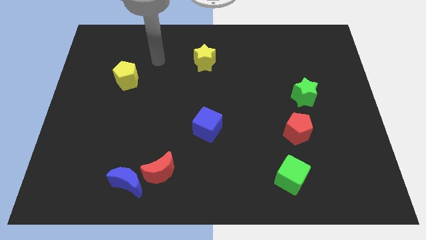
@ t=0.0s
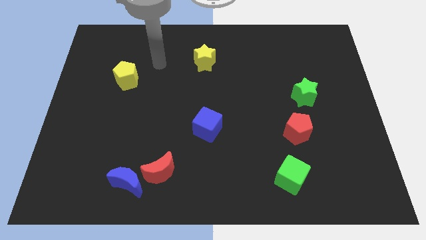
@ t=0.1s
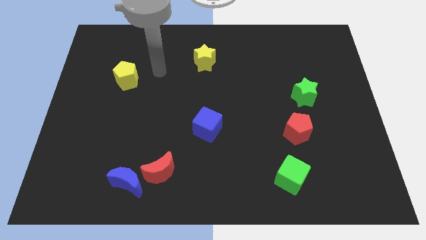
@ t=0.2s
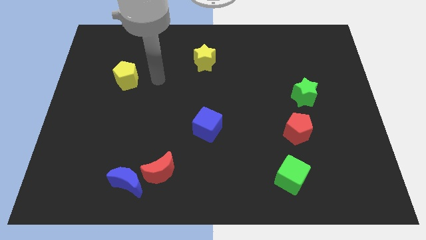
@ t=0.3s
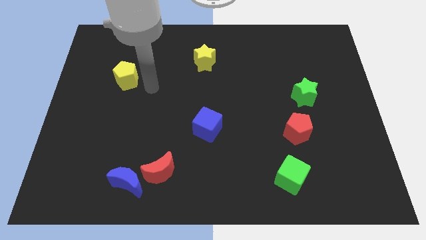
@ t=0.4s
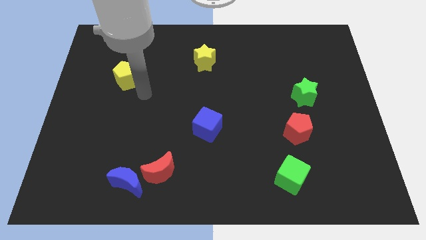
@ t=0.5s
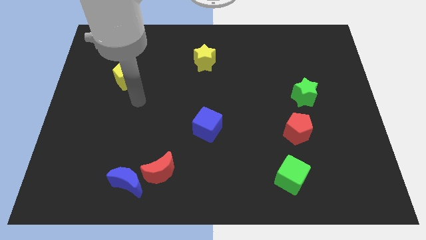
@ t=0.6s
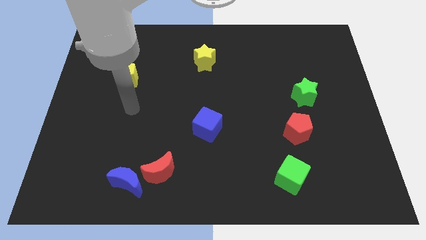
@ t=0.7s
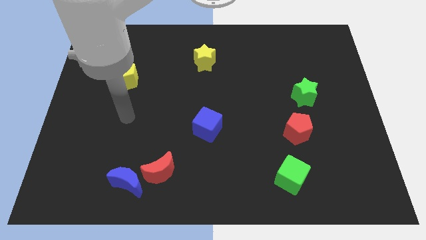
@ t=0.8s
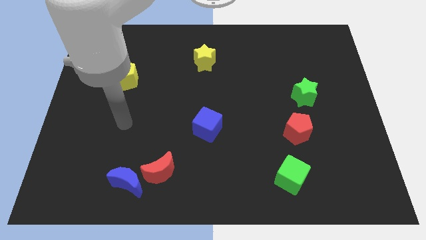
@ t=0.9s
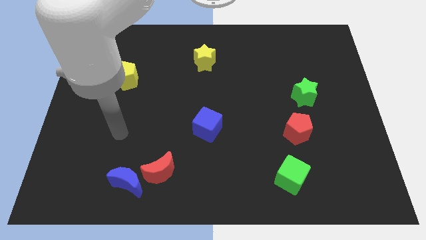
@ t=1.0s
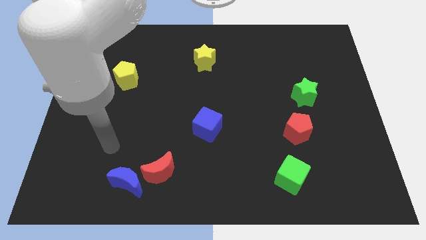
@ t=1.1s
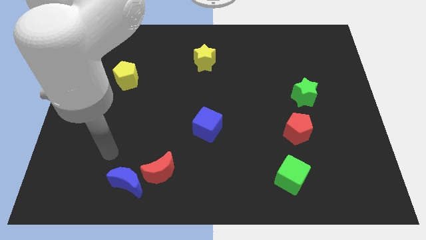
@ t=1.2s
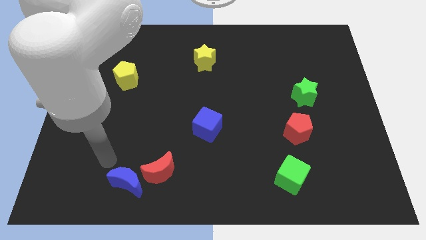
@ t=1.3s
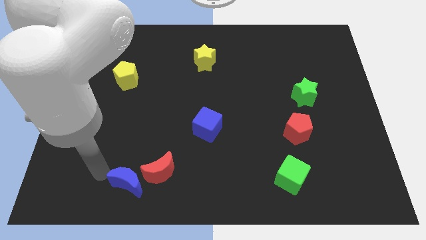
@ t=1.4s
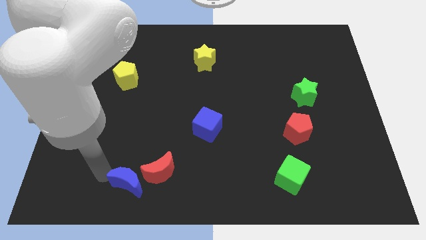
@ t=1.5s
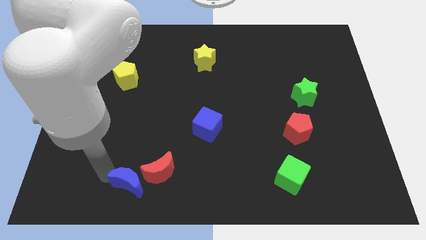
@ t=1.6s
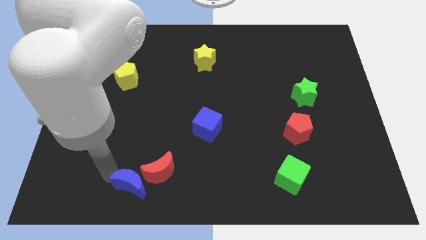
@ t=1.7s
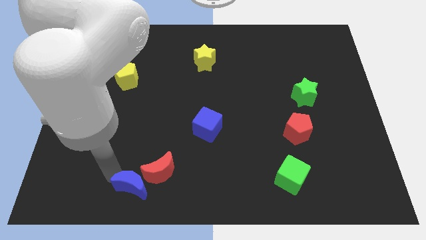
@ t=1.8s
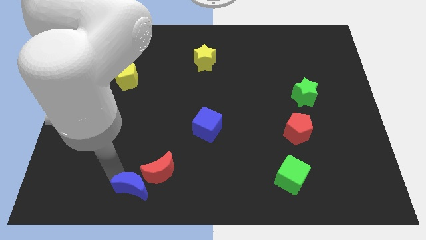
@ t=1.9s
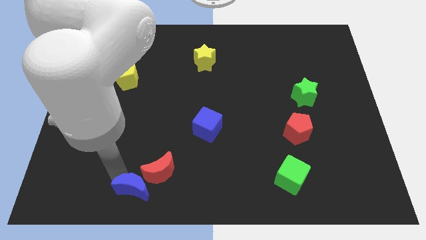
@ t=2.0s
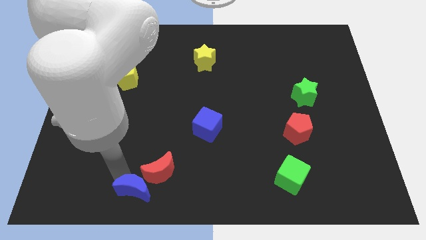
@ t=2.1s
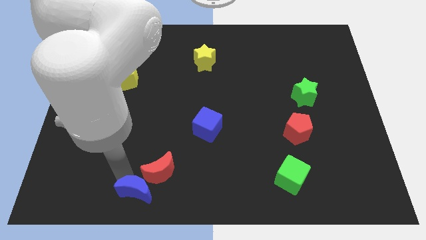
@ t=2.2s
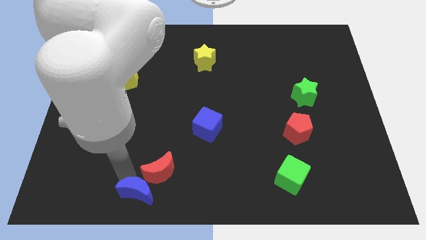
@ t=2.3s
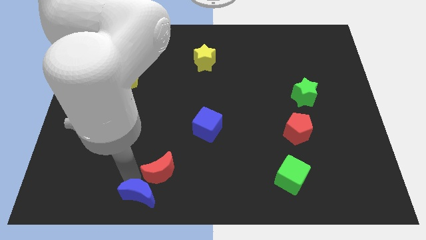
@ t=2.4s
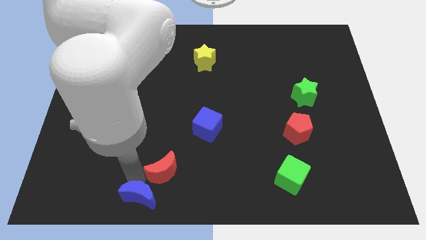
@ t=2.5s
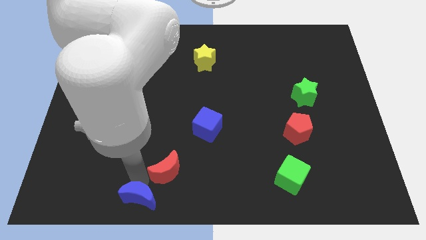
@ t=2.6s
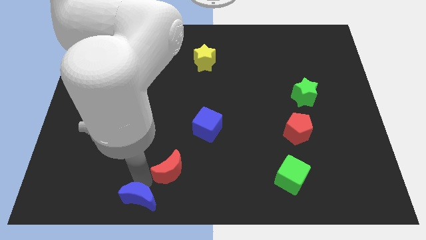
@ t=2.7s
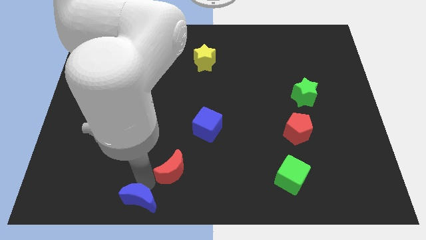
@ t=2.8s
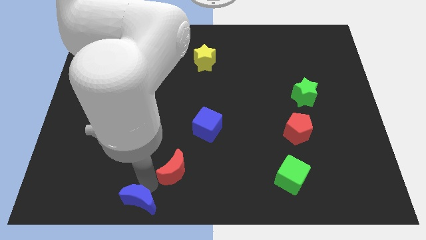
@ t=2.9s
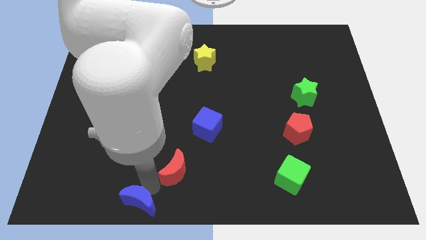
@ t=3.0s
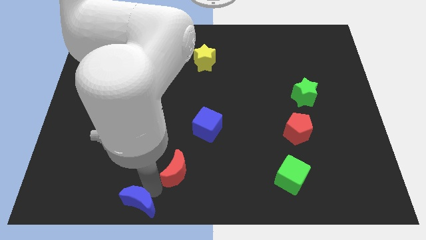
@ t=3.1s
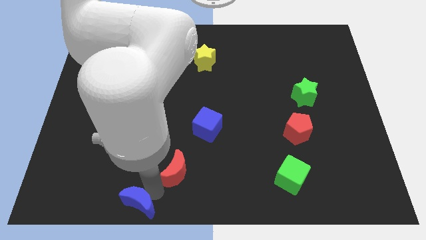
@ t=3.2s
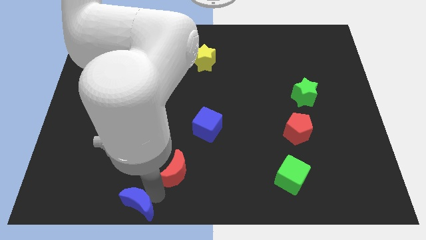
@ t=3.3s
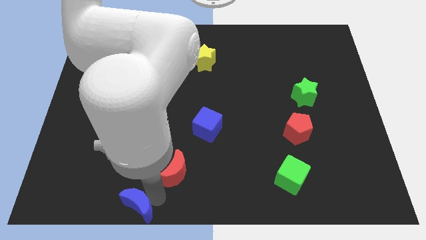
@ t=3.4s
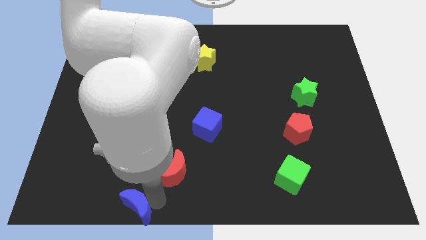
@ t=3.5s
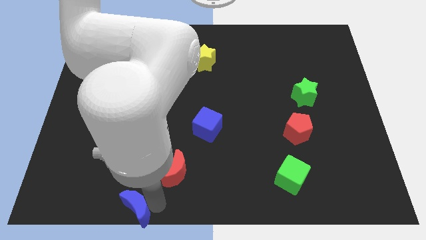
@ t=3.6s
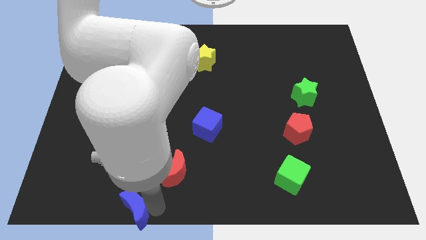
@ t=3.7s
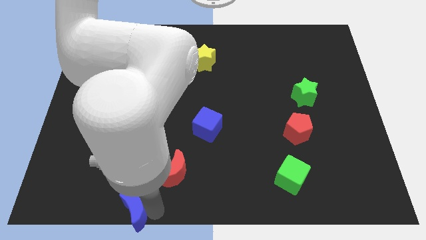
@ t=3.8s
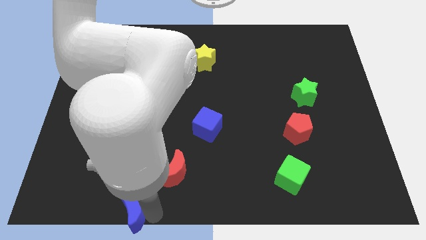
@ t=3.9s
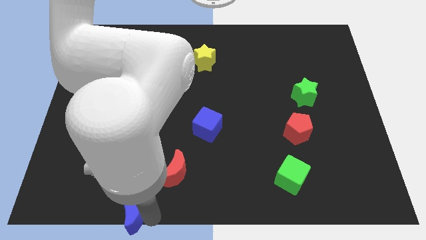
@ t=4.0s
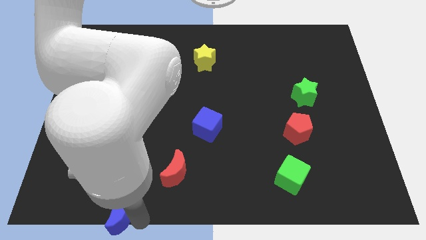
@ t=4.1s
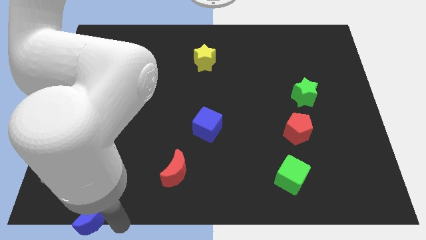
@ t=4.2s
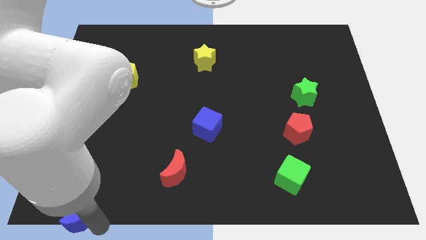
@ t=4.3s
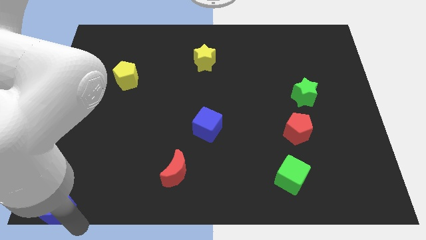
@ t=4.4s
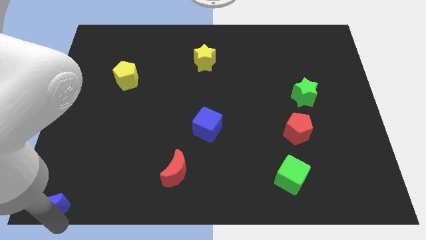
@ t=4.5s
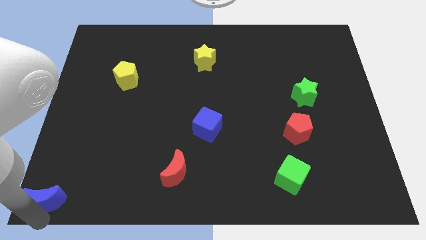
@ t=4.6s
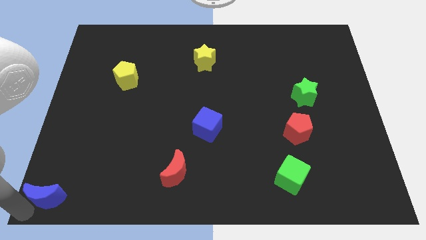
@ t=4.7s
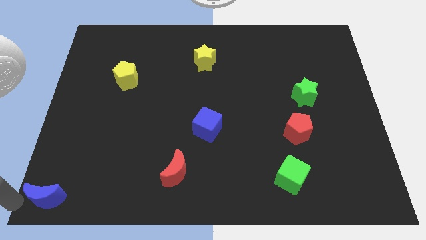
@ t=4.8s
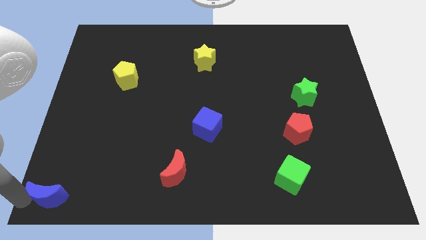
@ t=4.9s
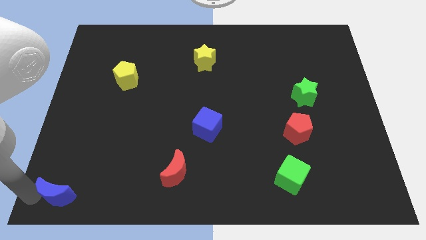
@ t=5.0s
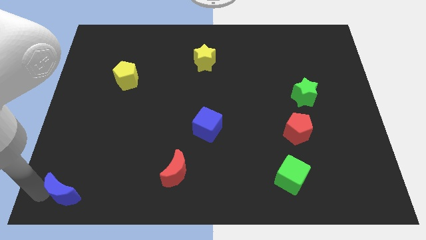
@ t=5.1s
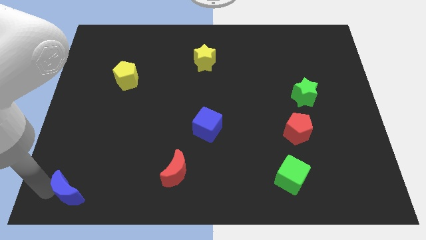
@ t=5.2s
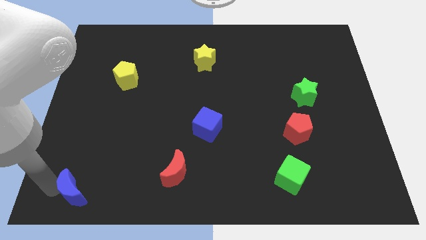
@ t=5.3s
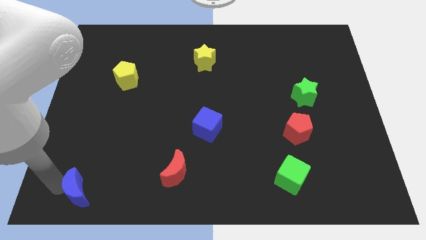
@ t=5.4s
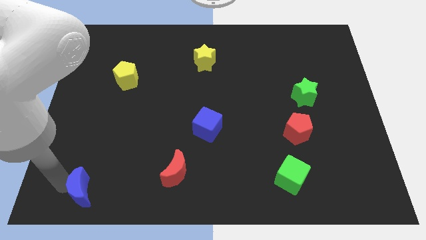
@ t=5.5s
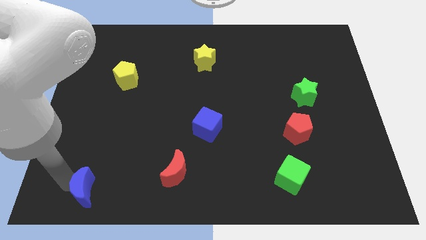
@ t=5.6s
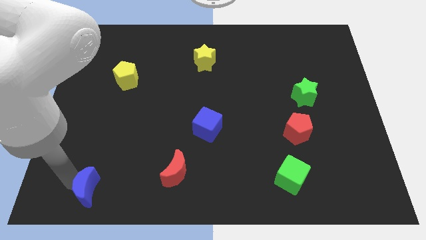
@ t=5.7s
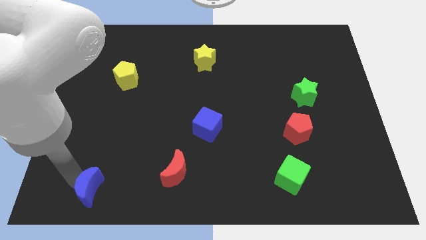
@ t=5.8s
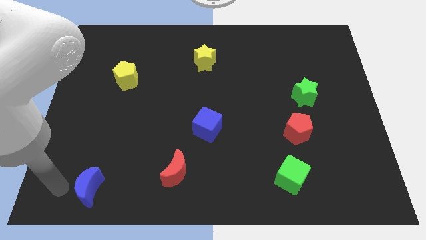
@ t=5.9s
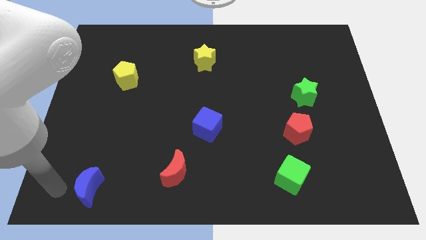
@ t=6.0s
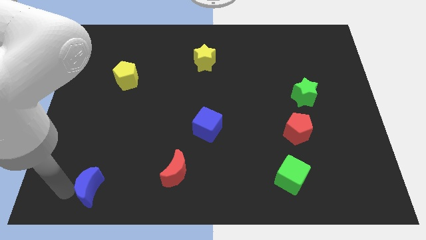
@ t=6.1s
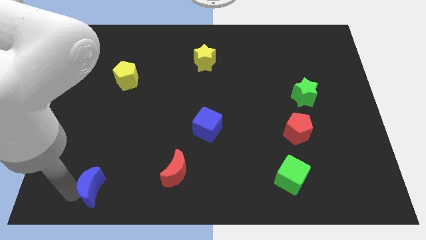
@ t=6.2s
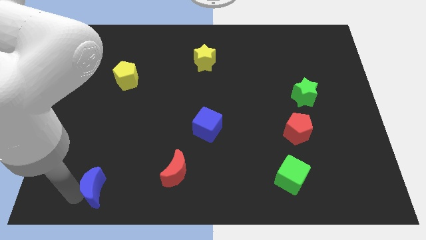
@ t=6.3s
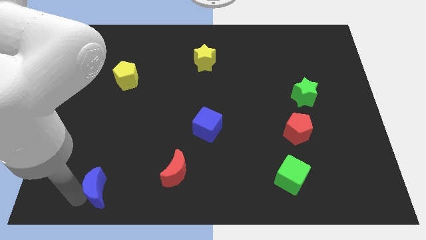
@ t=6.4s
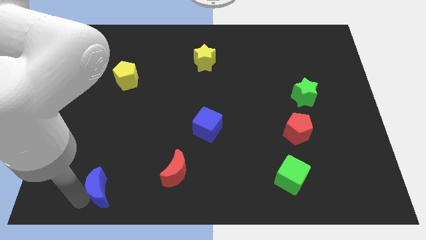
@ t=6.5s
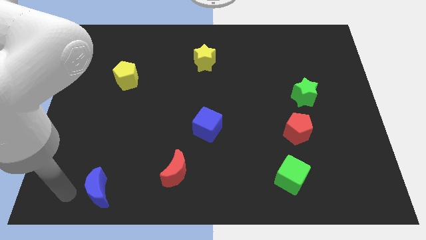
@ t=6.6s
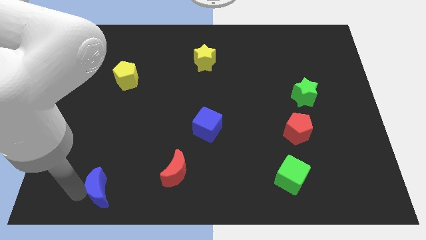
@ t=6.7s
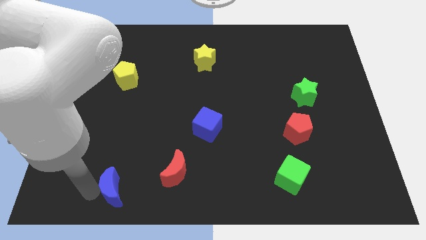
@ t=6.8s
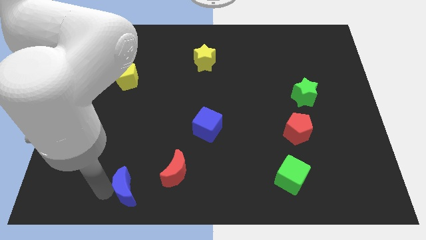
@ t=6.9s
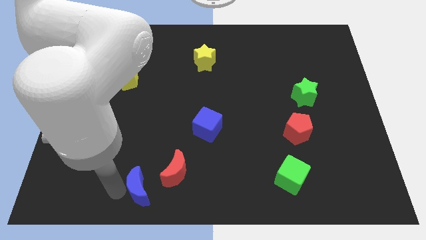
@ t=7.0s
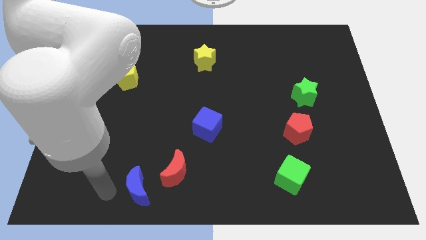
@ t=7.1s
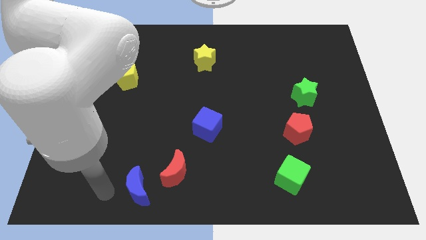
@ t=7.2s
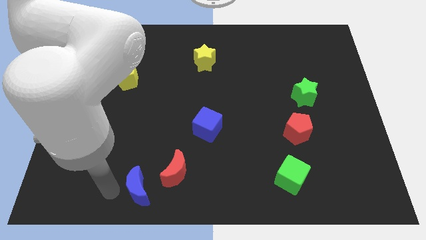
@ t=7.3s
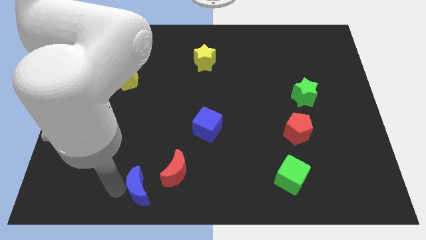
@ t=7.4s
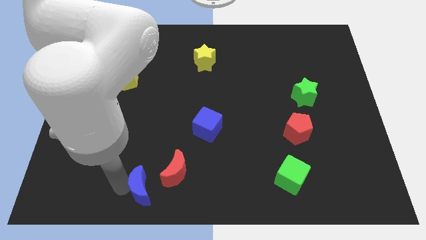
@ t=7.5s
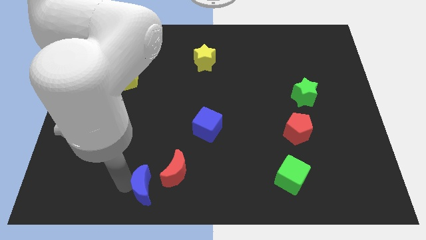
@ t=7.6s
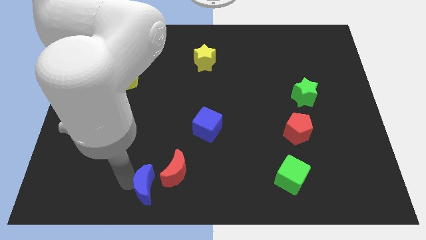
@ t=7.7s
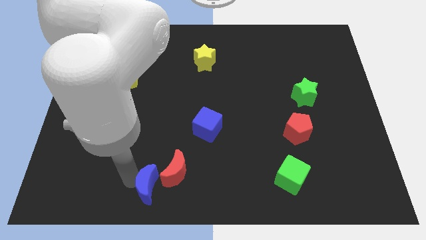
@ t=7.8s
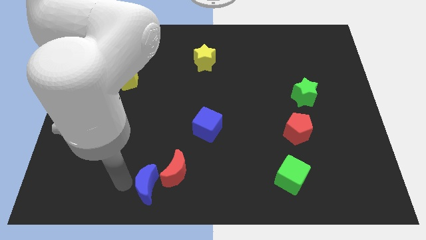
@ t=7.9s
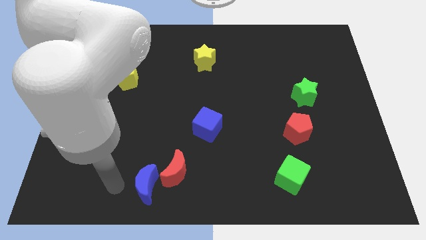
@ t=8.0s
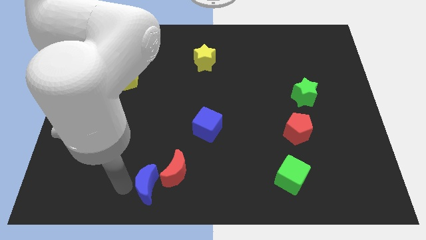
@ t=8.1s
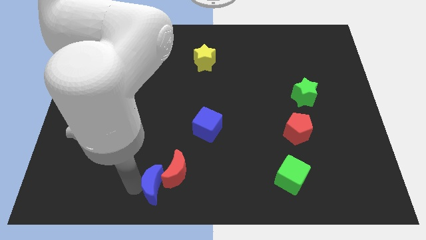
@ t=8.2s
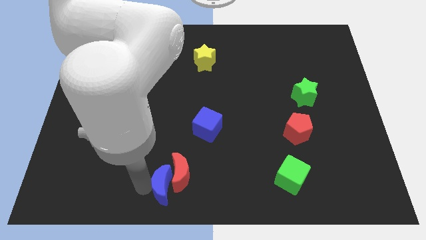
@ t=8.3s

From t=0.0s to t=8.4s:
move the blue moon a little bit to the right
